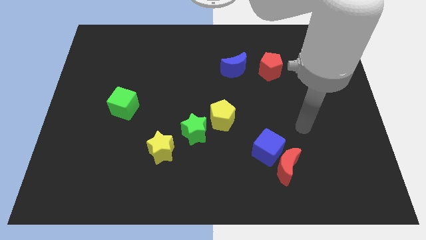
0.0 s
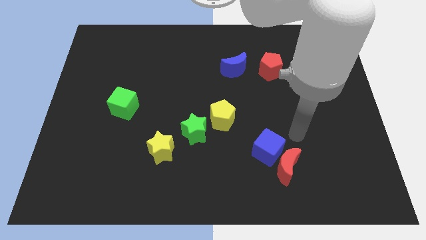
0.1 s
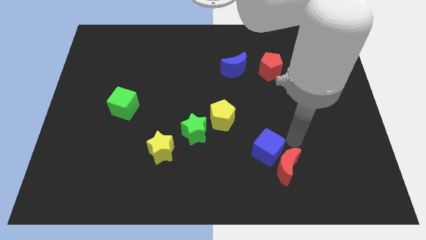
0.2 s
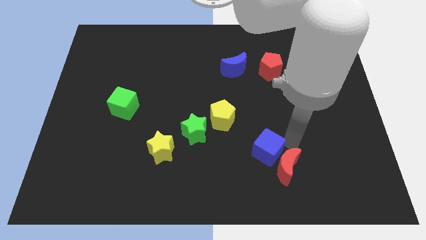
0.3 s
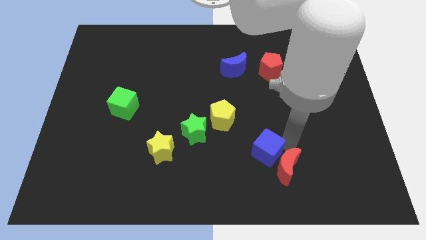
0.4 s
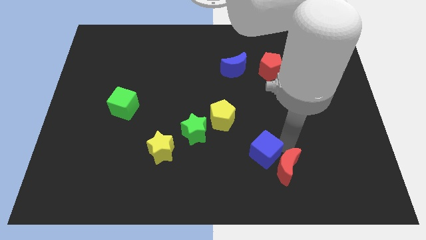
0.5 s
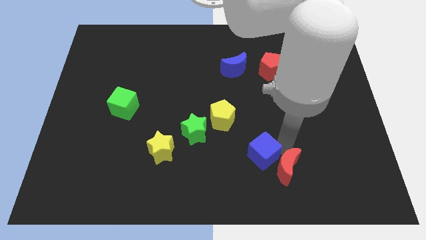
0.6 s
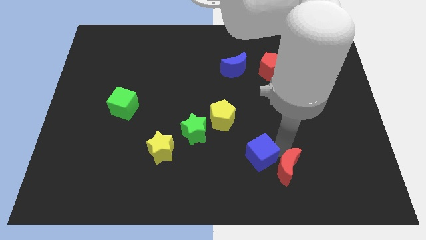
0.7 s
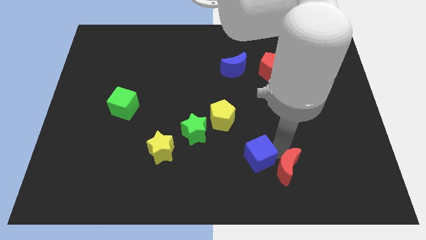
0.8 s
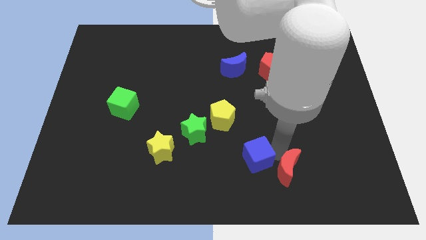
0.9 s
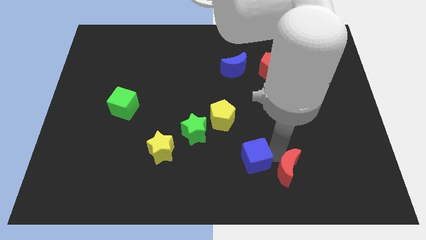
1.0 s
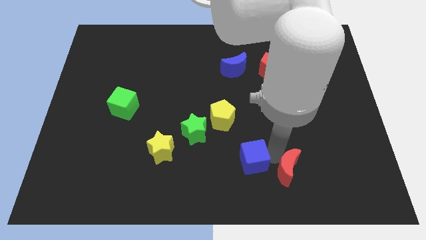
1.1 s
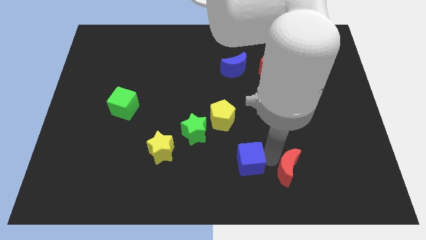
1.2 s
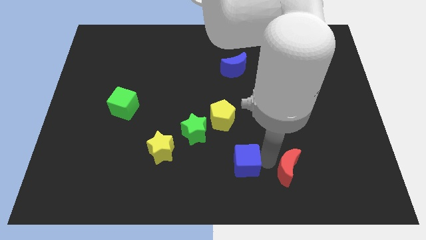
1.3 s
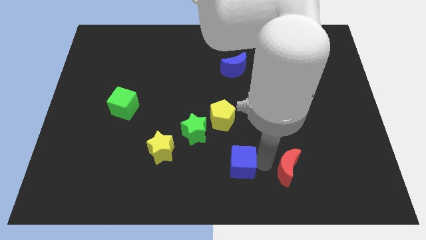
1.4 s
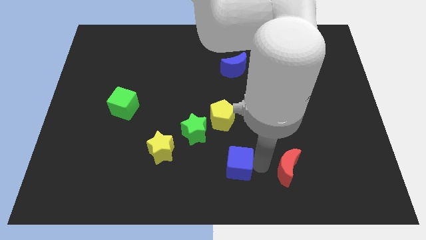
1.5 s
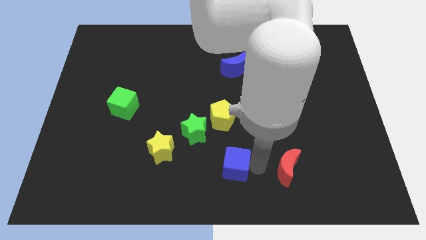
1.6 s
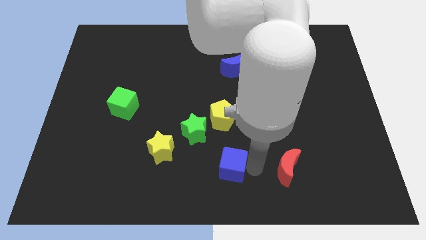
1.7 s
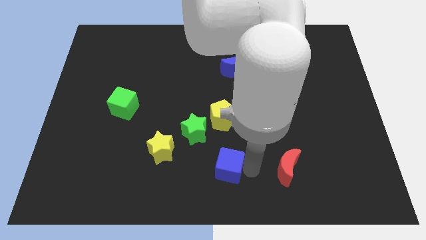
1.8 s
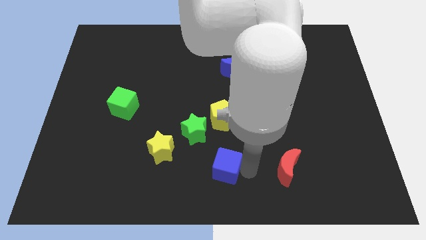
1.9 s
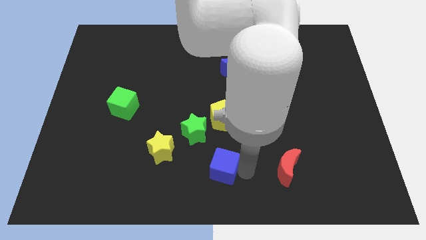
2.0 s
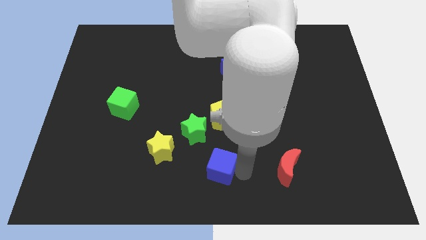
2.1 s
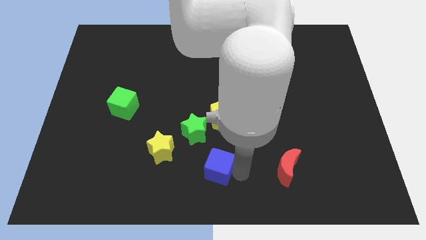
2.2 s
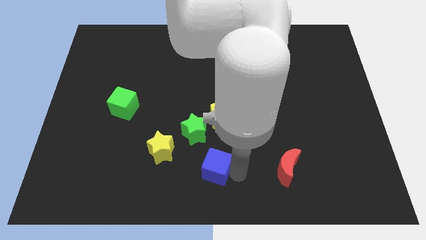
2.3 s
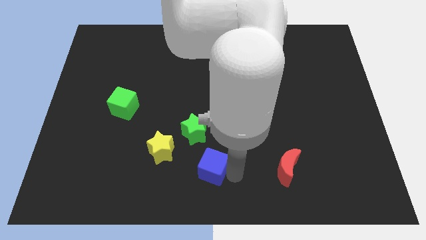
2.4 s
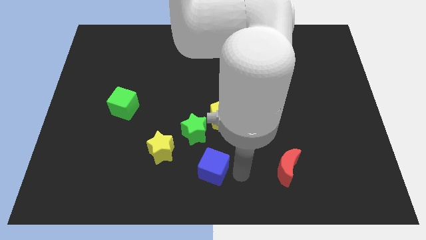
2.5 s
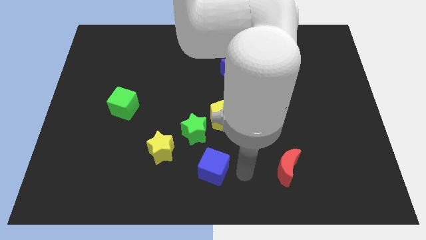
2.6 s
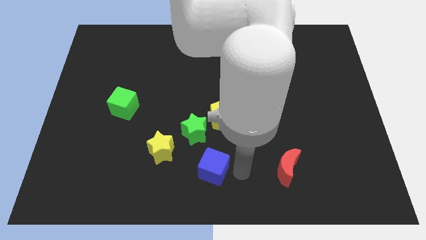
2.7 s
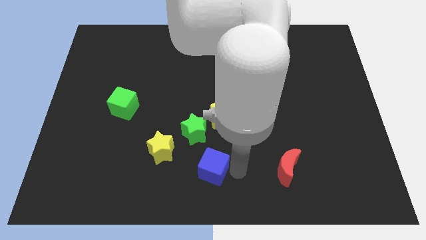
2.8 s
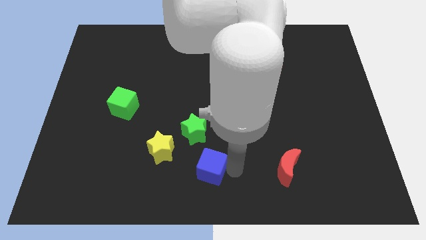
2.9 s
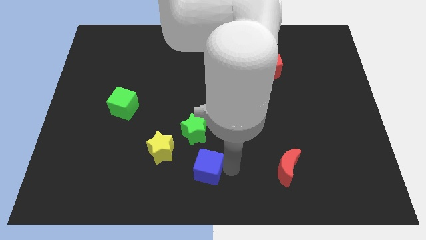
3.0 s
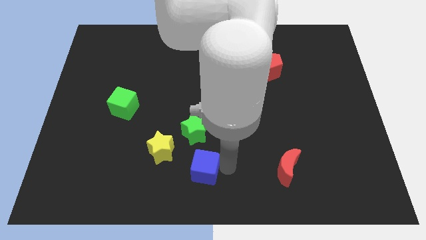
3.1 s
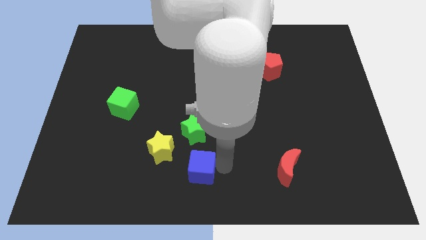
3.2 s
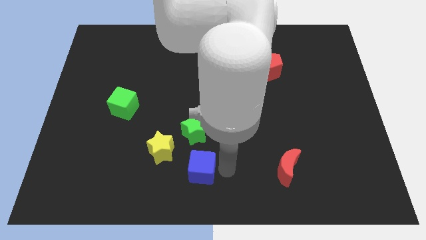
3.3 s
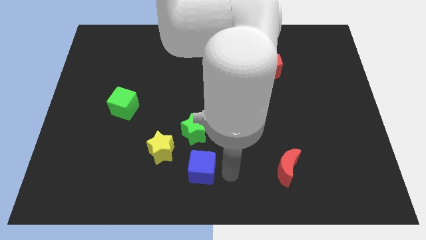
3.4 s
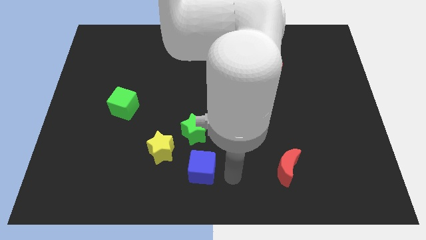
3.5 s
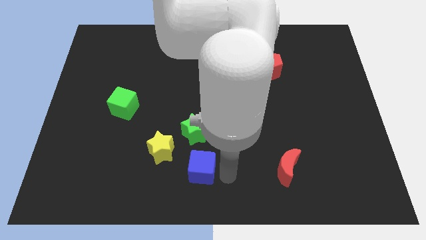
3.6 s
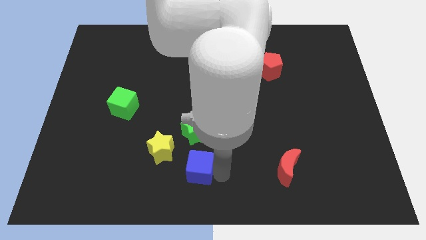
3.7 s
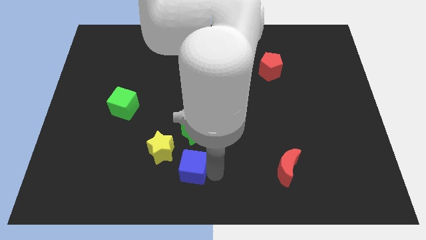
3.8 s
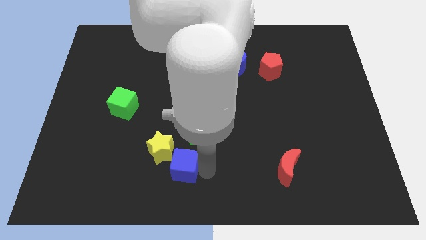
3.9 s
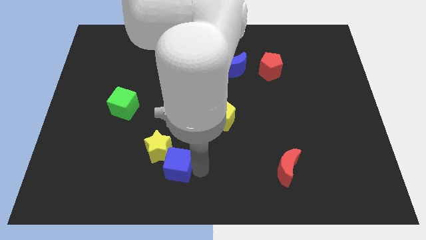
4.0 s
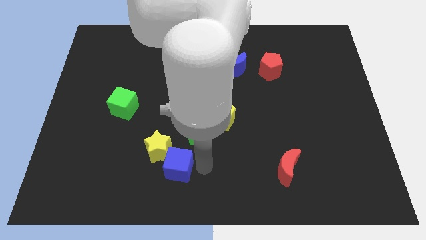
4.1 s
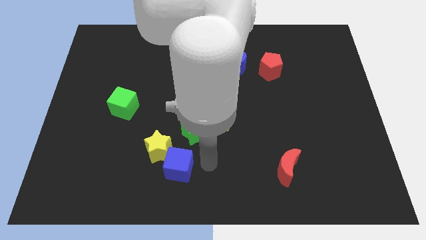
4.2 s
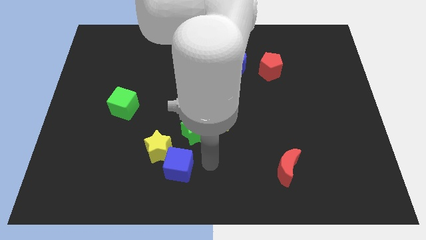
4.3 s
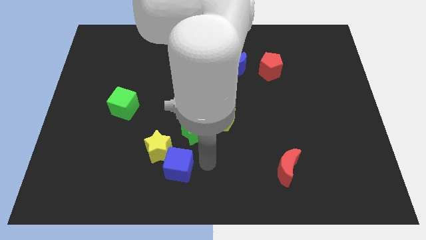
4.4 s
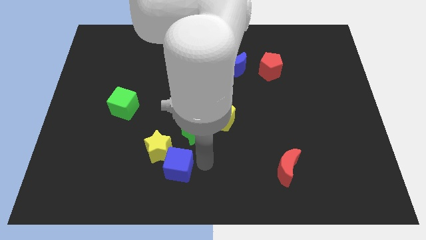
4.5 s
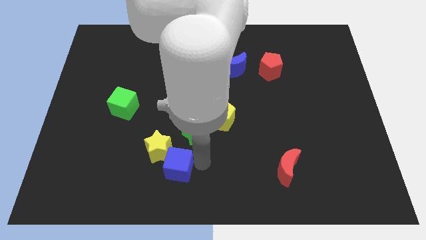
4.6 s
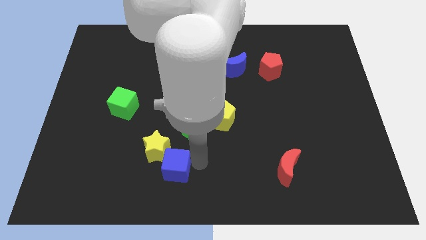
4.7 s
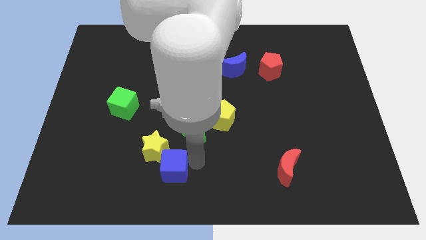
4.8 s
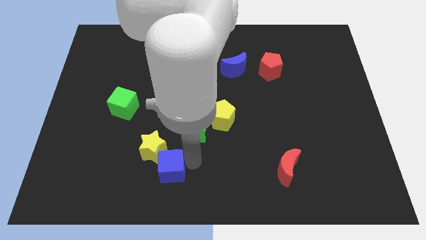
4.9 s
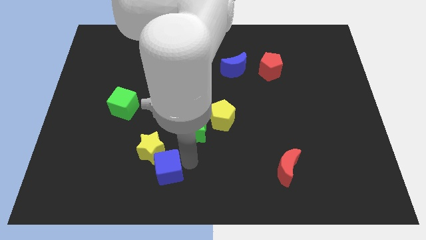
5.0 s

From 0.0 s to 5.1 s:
push the blue cube to the left

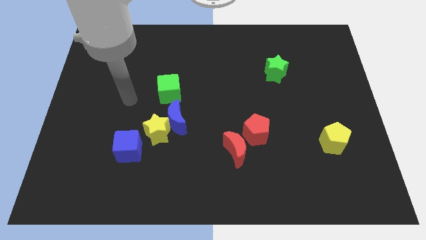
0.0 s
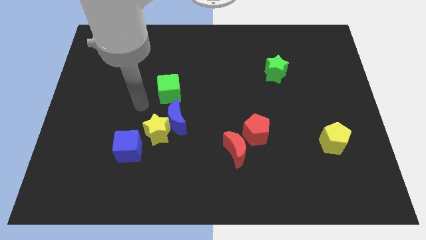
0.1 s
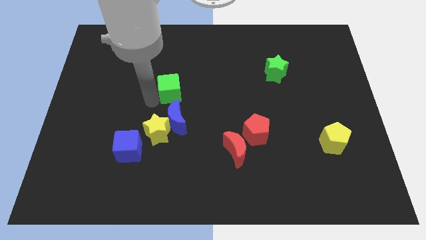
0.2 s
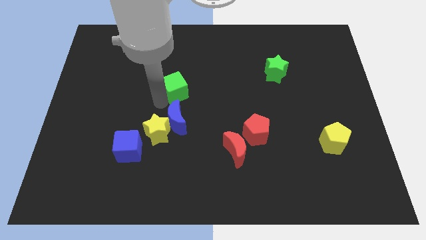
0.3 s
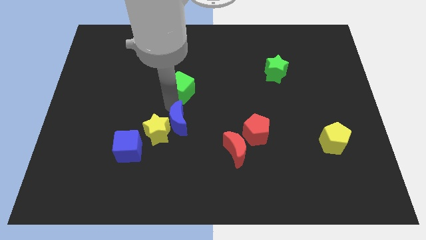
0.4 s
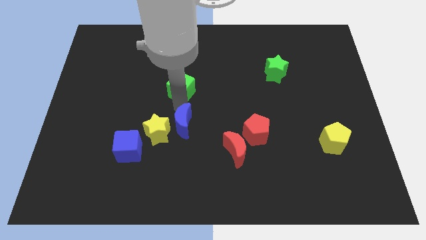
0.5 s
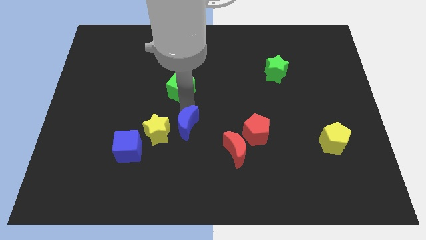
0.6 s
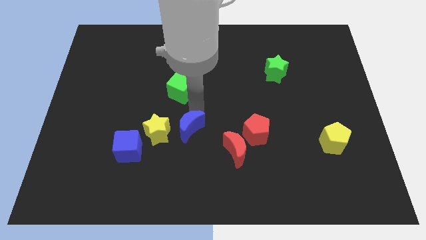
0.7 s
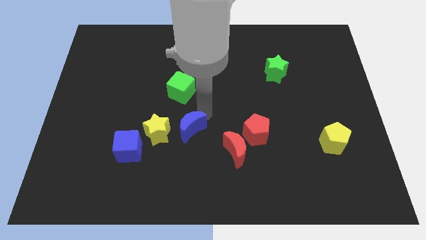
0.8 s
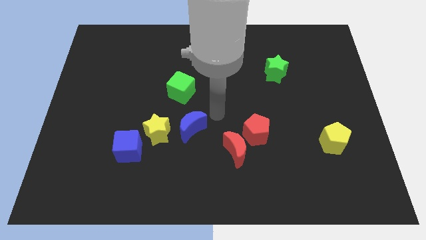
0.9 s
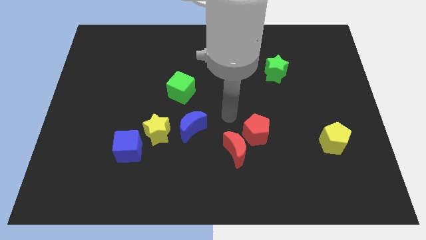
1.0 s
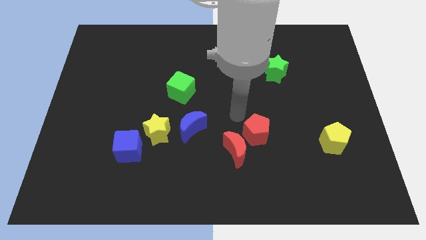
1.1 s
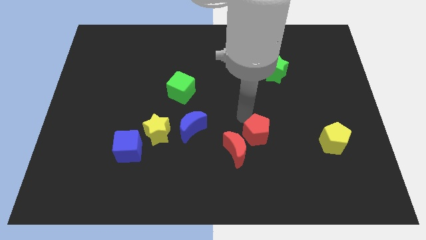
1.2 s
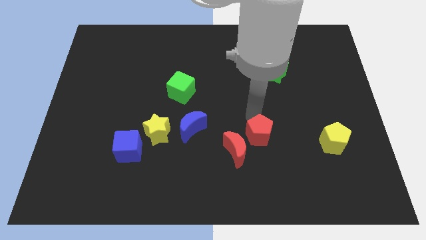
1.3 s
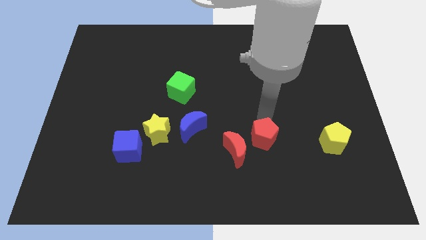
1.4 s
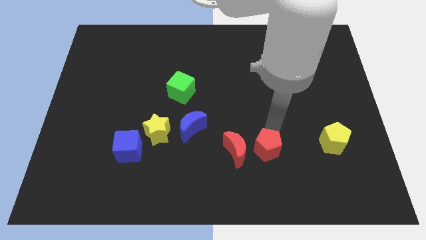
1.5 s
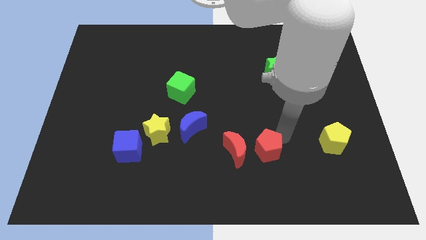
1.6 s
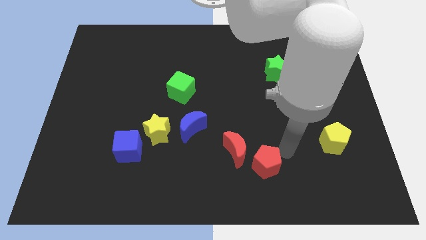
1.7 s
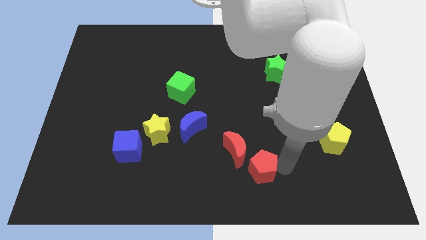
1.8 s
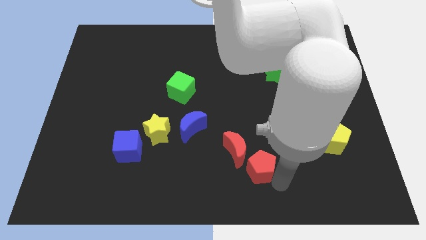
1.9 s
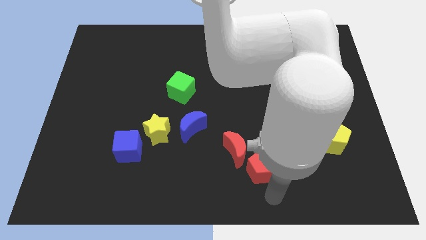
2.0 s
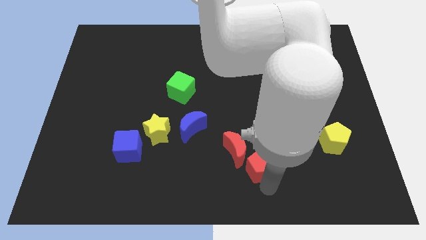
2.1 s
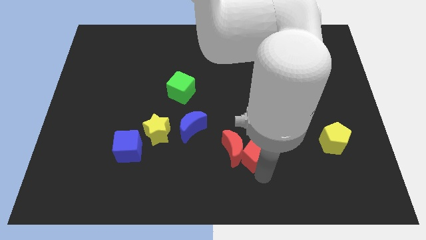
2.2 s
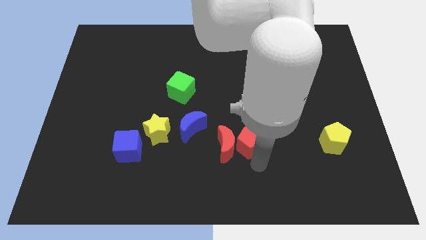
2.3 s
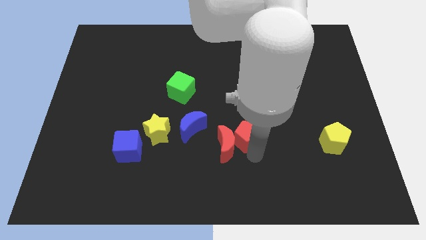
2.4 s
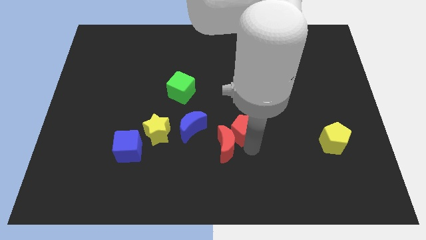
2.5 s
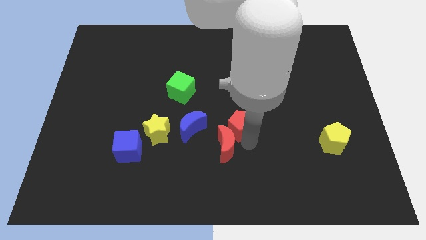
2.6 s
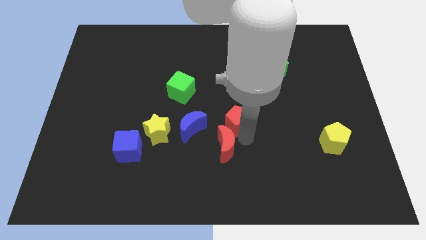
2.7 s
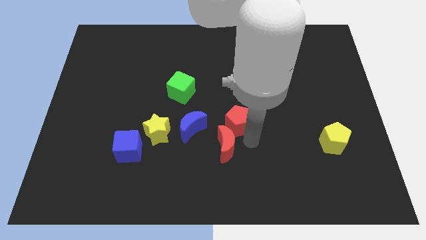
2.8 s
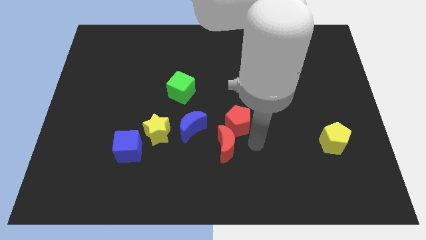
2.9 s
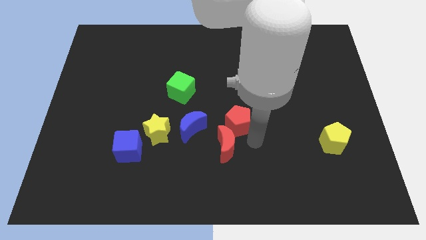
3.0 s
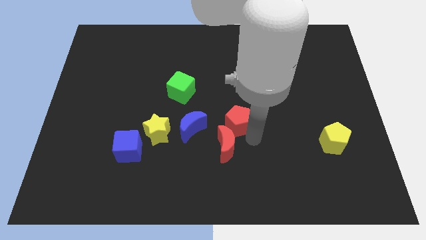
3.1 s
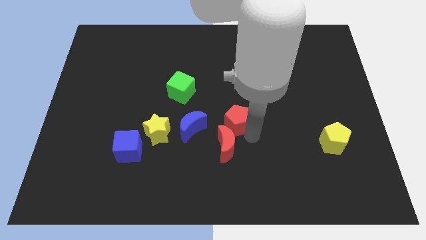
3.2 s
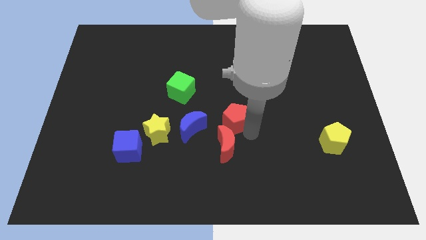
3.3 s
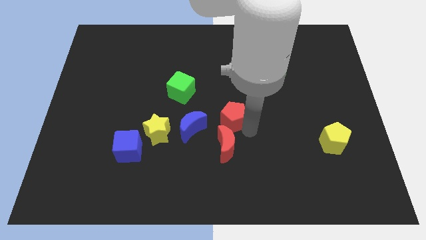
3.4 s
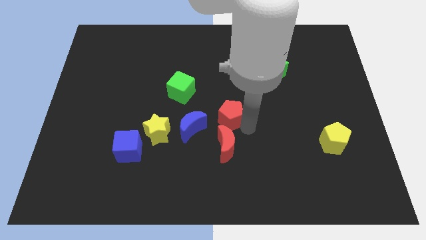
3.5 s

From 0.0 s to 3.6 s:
slide the red pentagon diagonally upwards and to the left slightly
